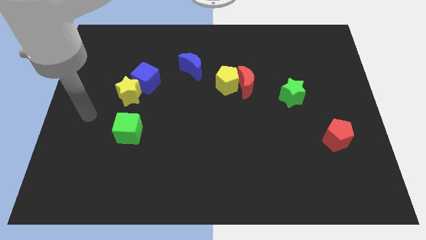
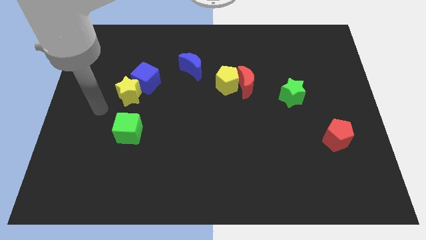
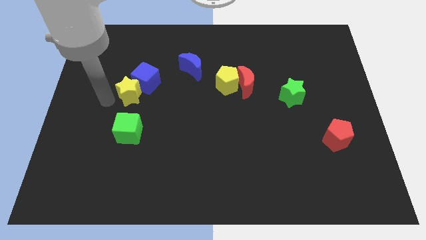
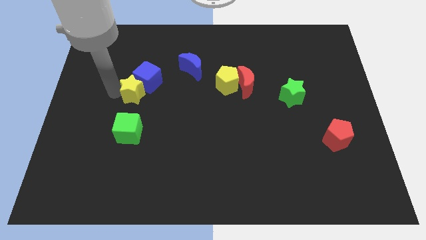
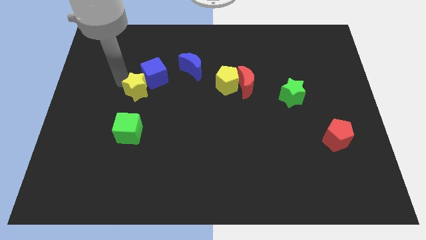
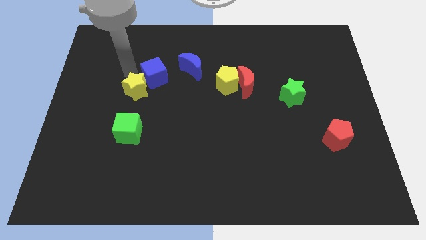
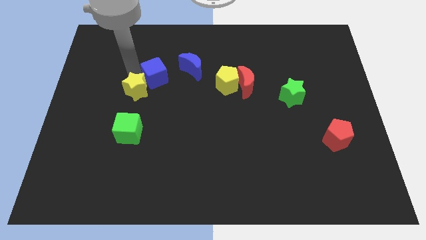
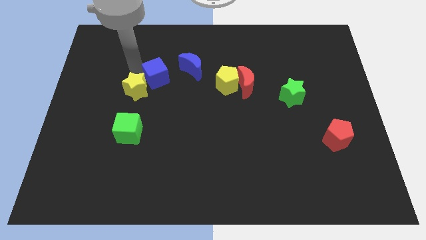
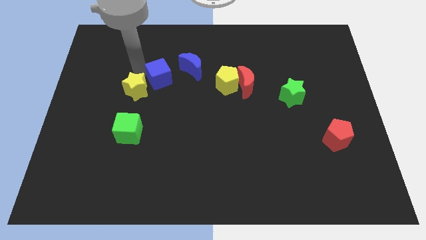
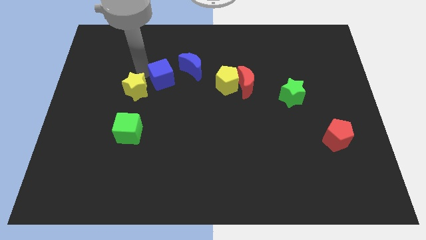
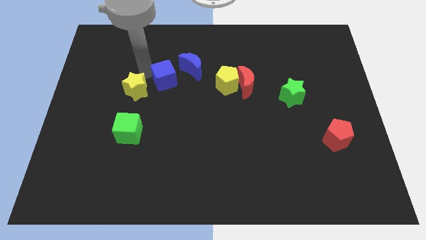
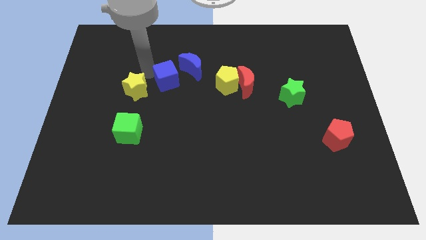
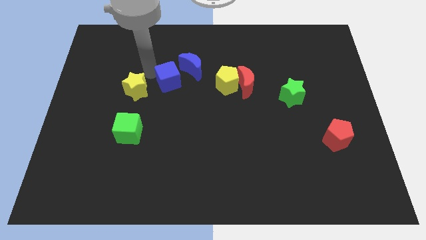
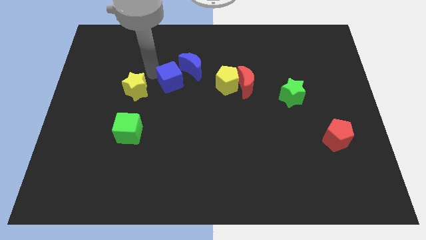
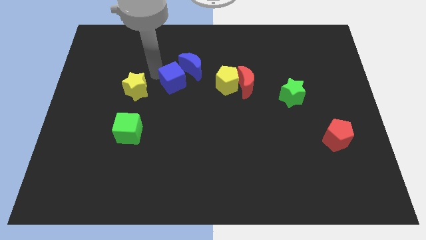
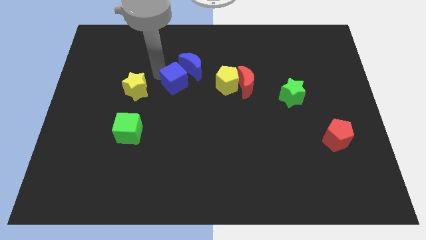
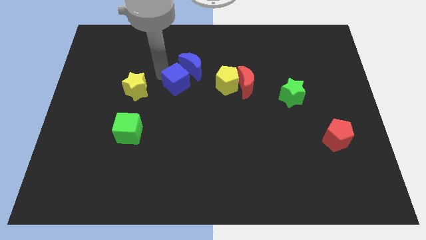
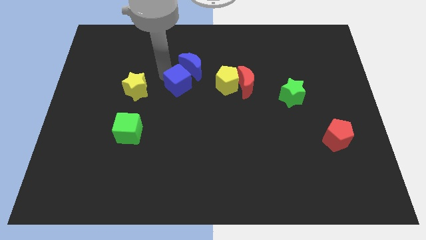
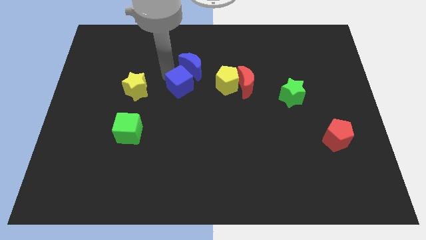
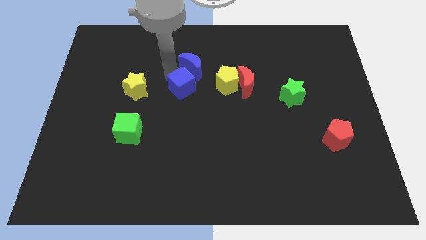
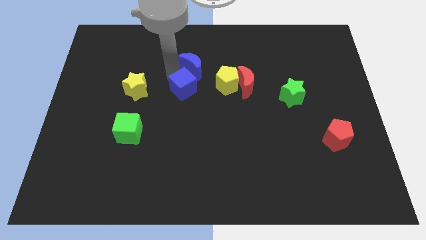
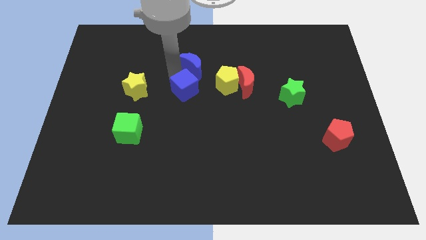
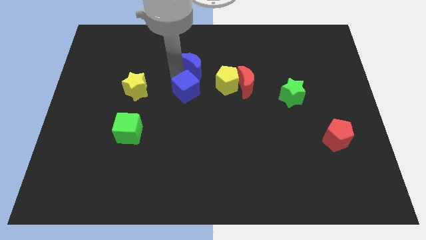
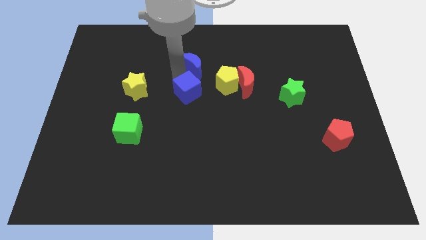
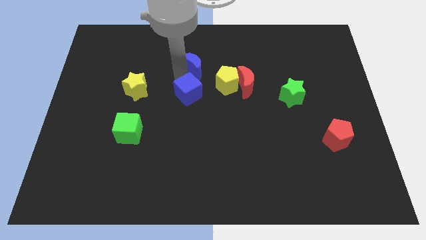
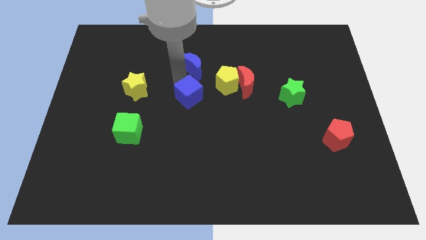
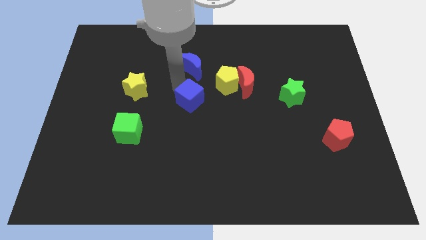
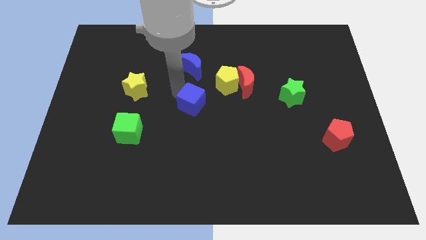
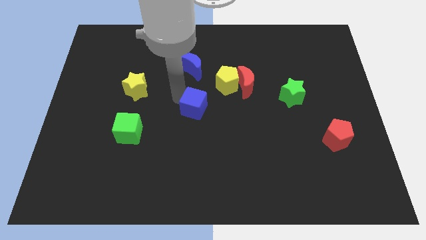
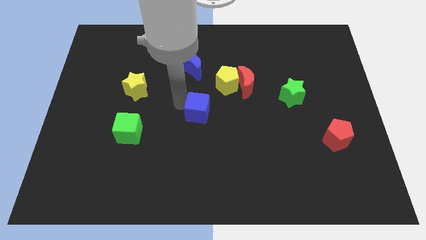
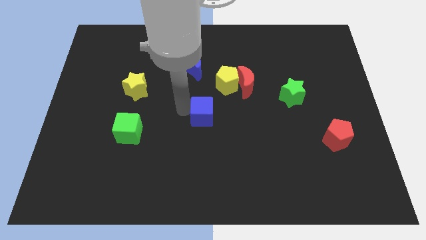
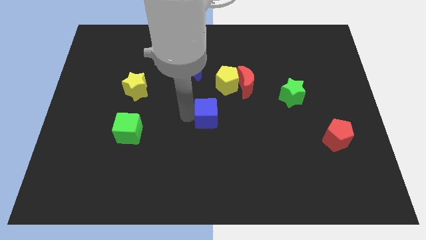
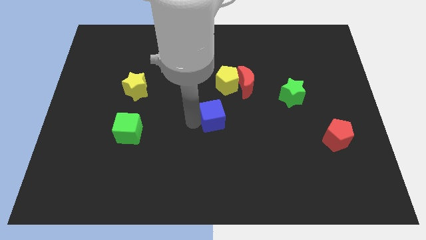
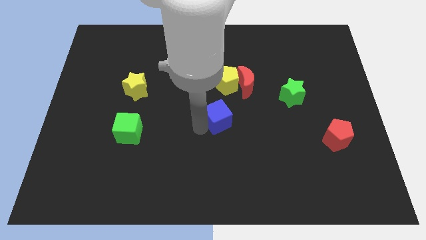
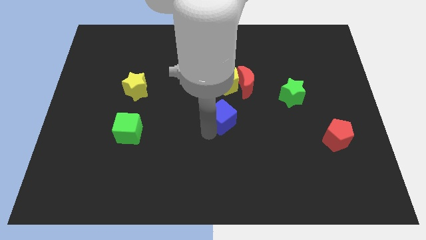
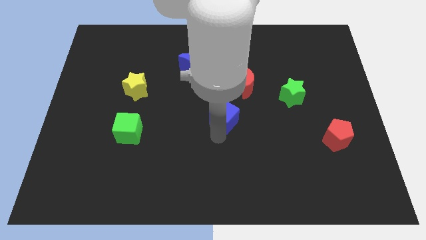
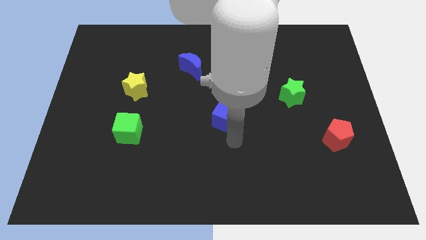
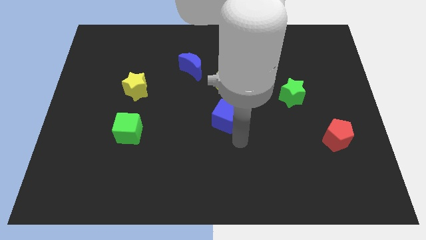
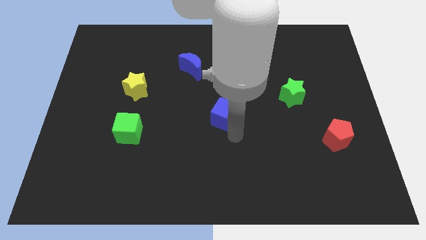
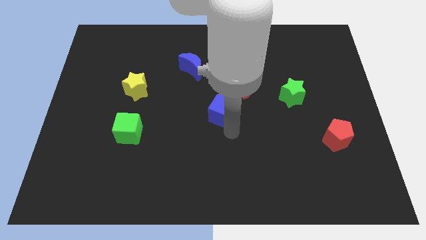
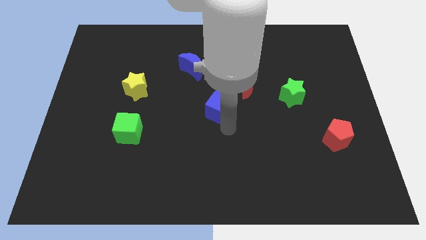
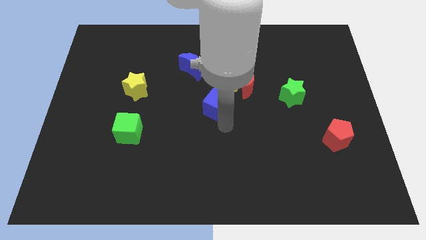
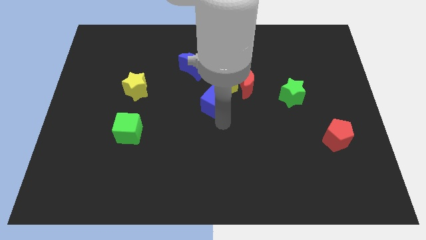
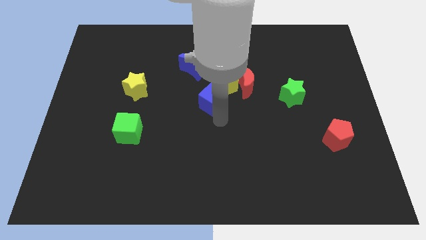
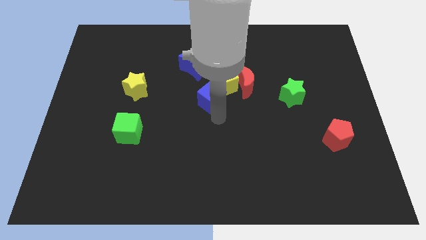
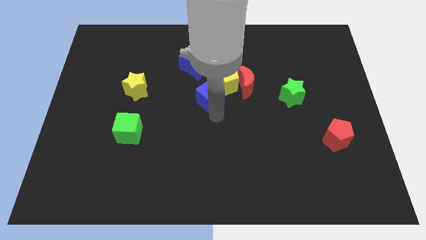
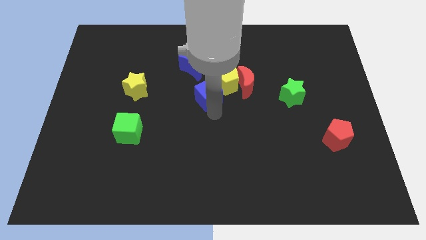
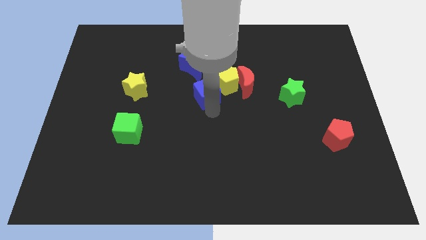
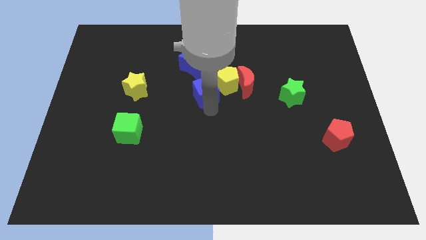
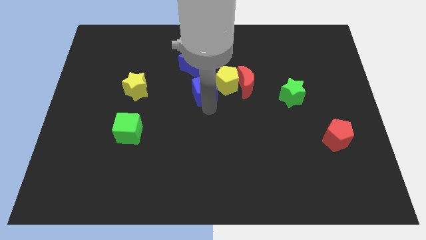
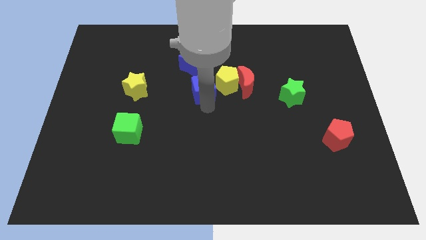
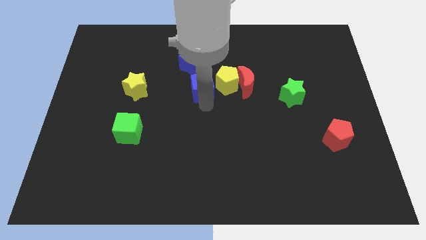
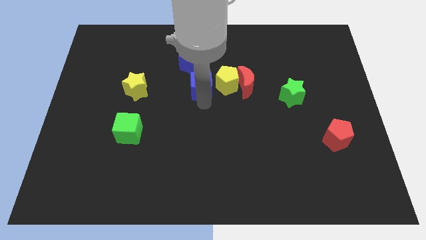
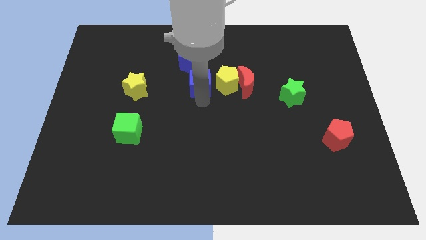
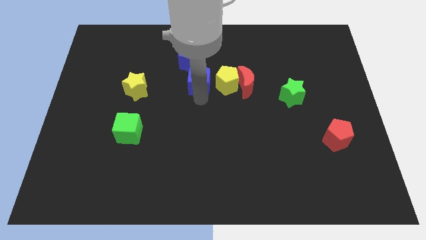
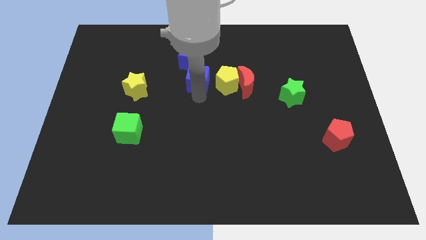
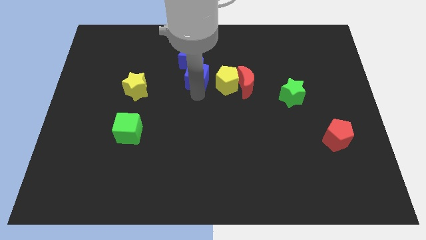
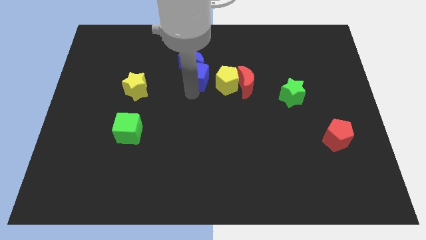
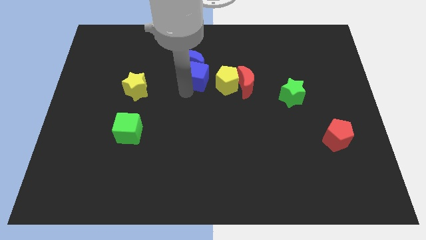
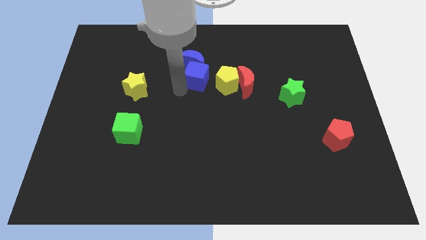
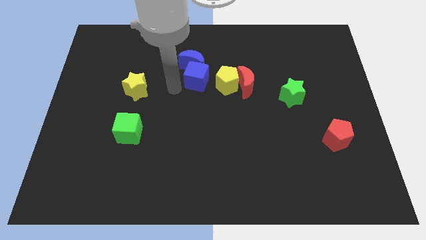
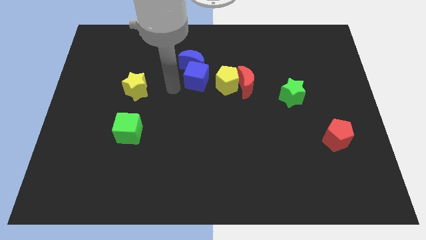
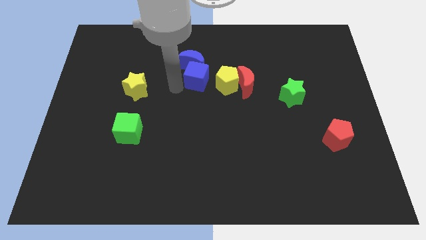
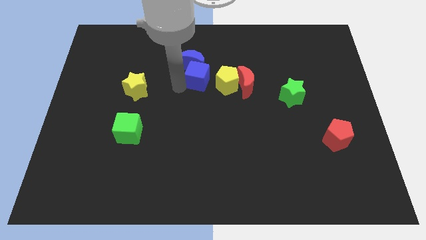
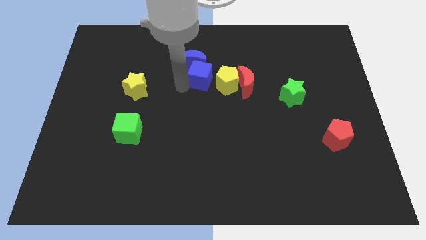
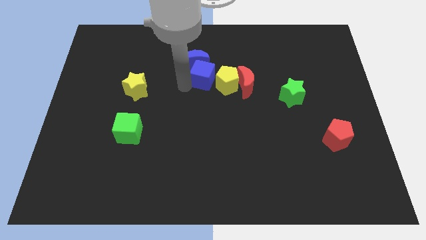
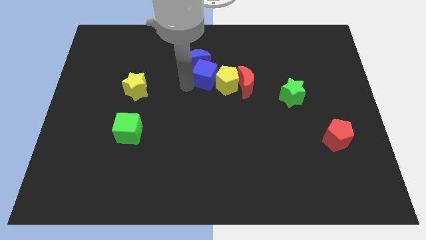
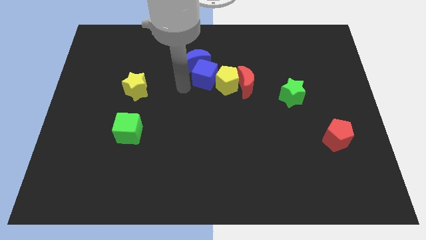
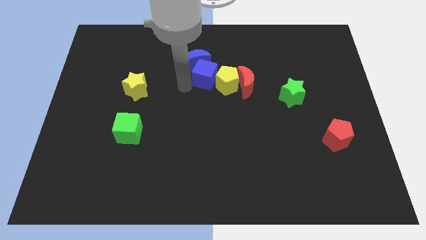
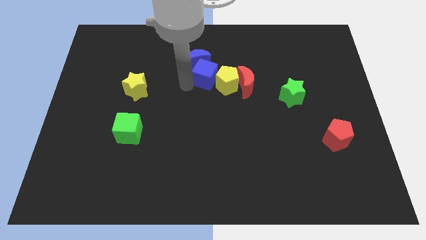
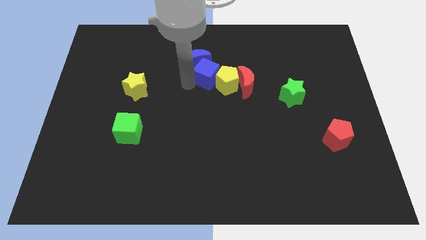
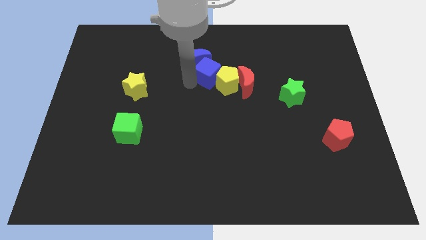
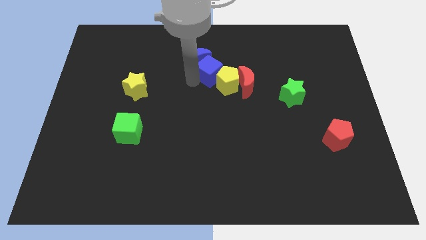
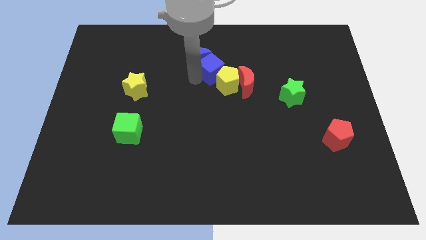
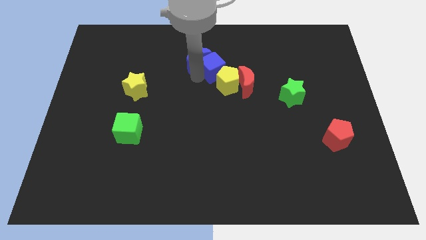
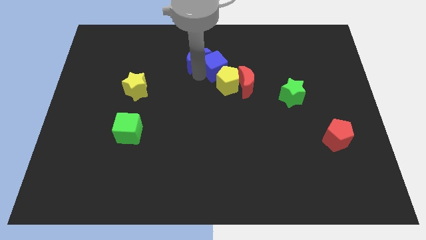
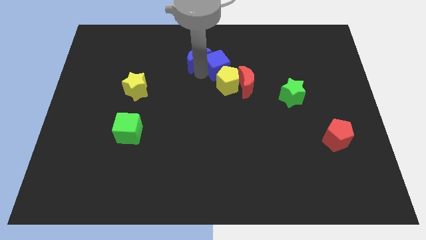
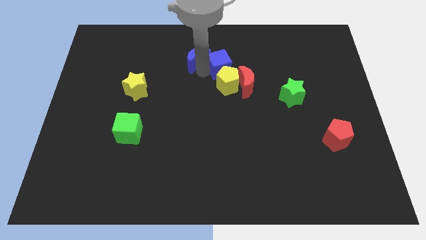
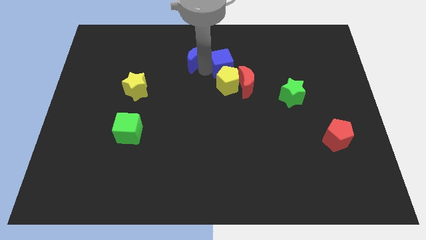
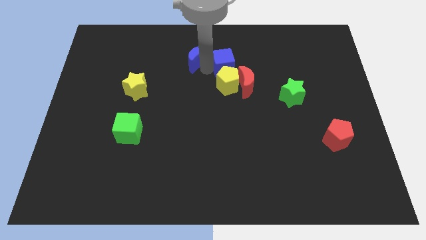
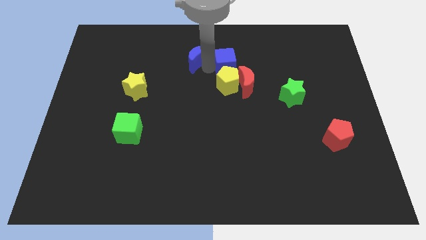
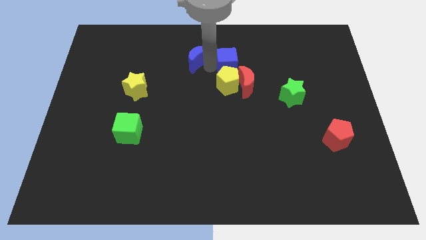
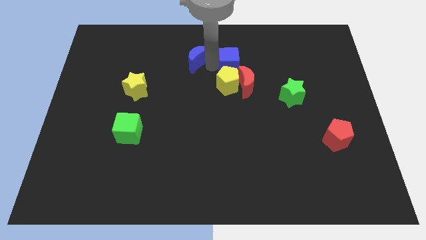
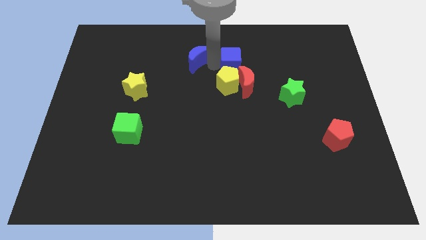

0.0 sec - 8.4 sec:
slide the blue cube to the right
